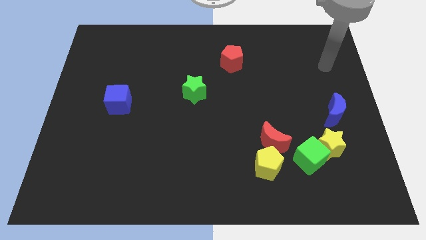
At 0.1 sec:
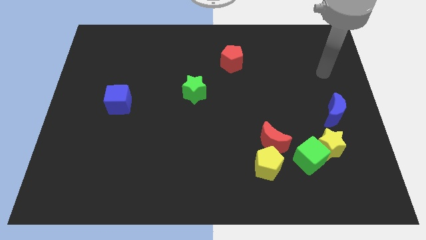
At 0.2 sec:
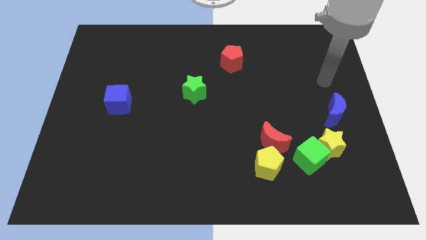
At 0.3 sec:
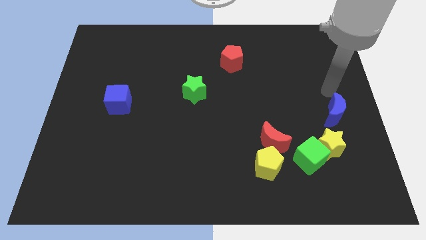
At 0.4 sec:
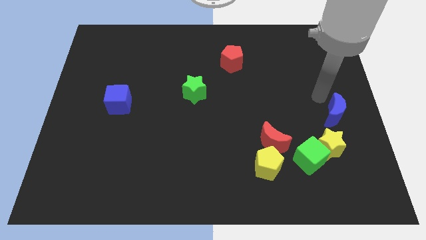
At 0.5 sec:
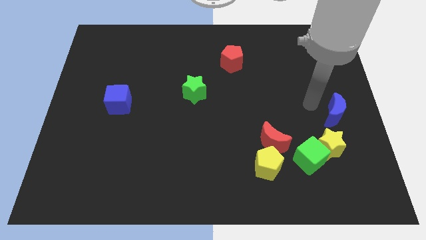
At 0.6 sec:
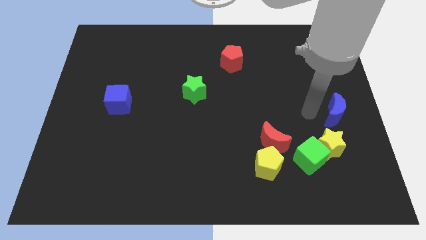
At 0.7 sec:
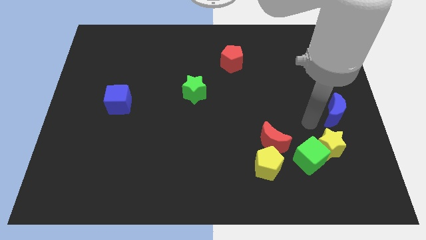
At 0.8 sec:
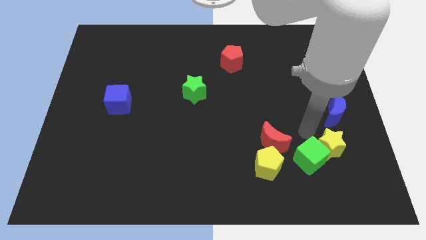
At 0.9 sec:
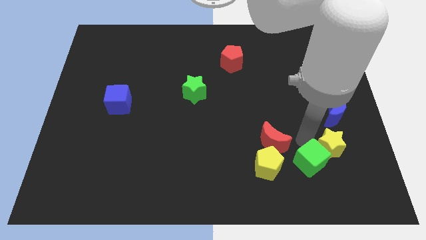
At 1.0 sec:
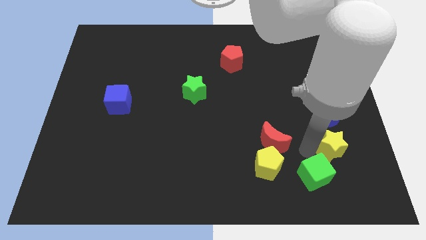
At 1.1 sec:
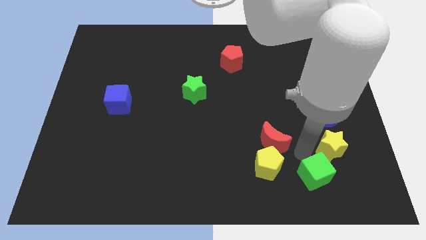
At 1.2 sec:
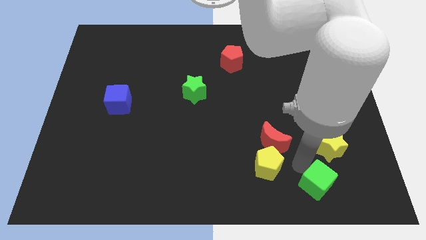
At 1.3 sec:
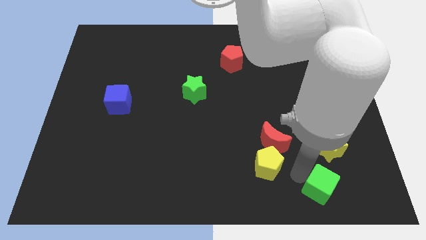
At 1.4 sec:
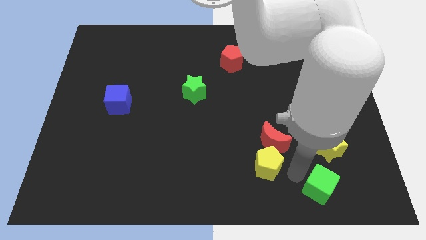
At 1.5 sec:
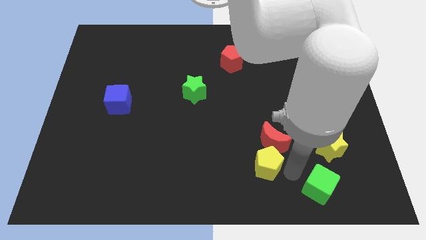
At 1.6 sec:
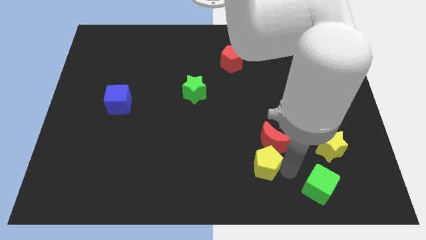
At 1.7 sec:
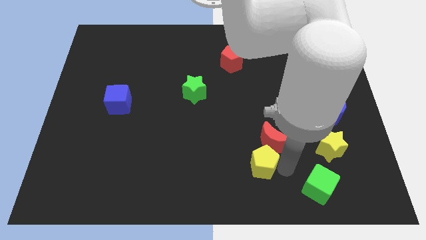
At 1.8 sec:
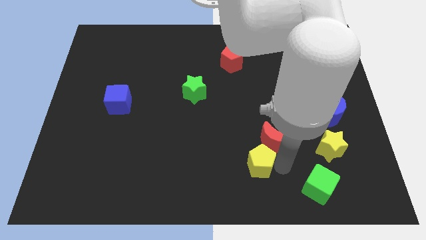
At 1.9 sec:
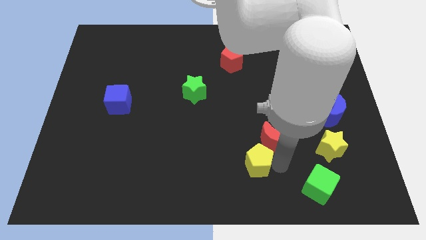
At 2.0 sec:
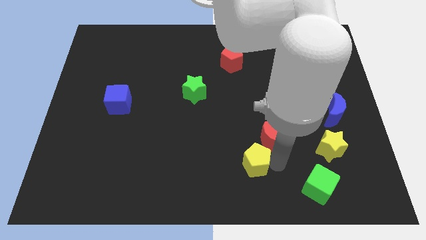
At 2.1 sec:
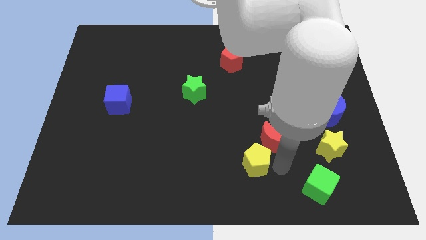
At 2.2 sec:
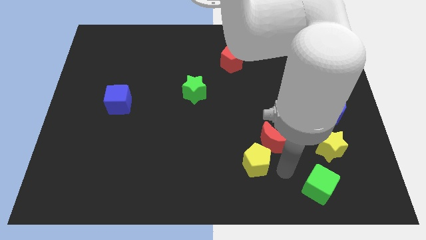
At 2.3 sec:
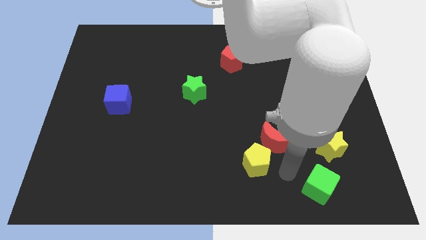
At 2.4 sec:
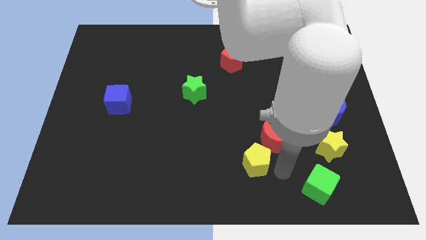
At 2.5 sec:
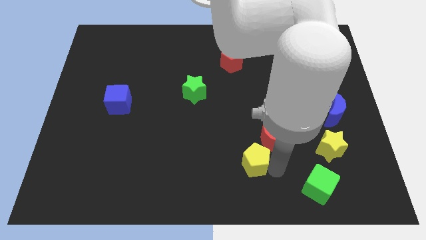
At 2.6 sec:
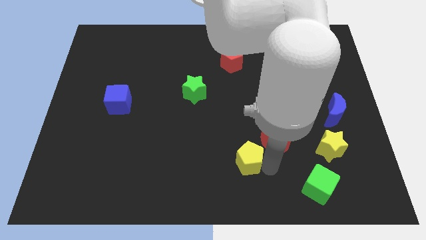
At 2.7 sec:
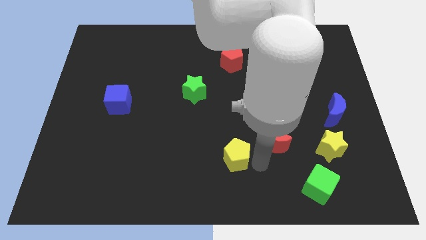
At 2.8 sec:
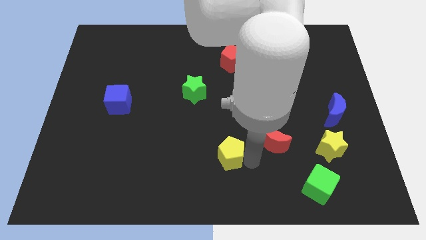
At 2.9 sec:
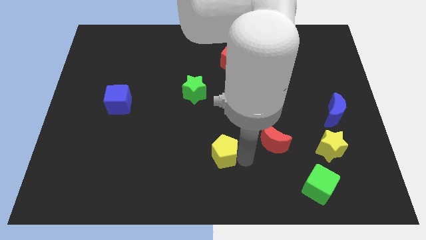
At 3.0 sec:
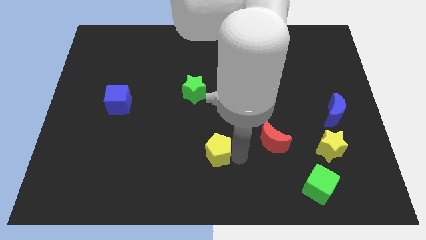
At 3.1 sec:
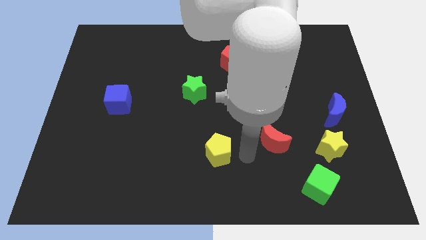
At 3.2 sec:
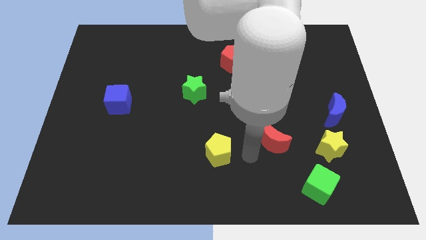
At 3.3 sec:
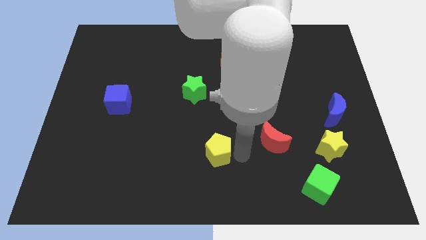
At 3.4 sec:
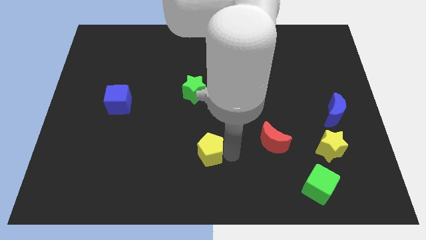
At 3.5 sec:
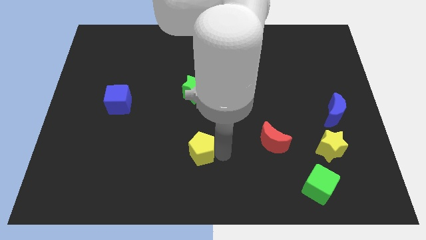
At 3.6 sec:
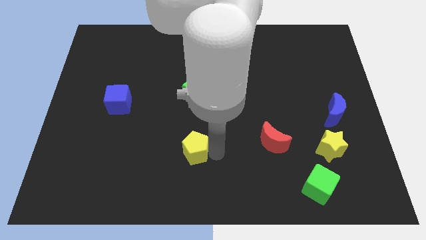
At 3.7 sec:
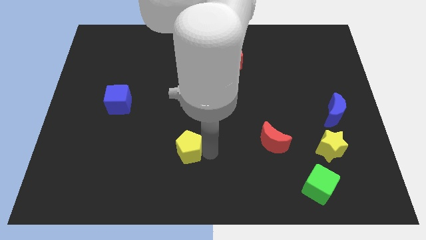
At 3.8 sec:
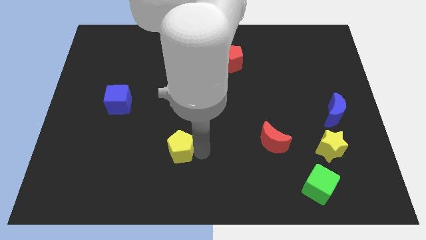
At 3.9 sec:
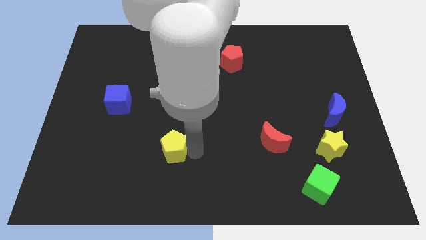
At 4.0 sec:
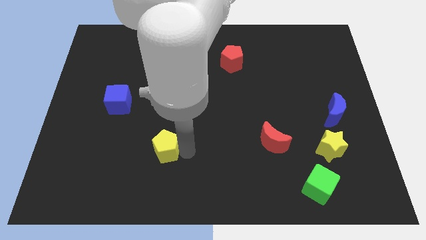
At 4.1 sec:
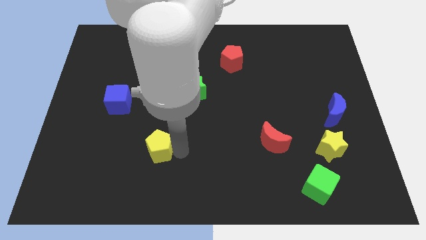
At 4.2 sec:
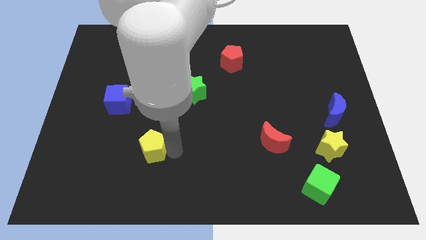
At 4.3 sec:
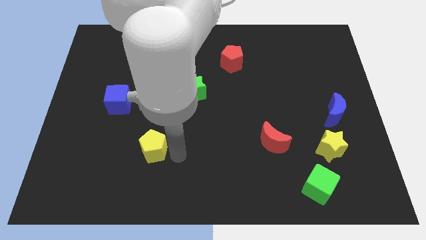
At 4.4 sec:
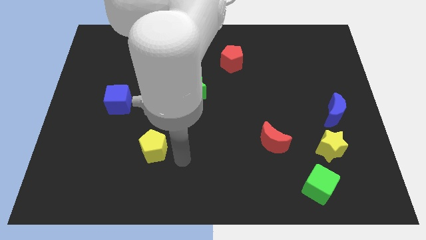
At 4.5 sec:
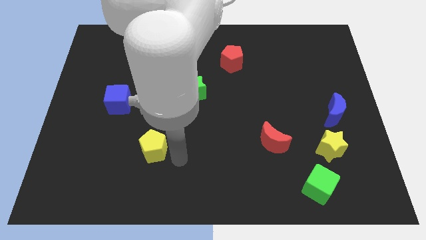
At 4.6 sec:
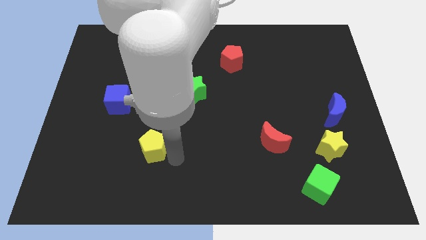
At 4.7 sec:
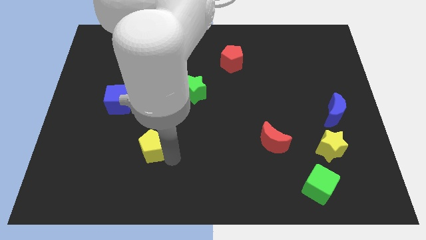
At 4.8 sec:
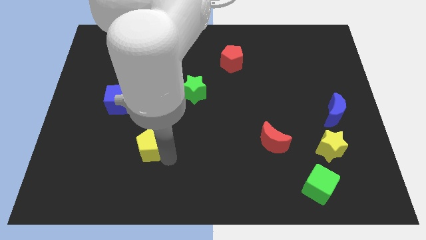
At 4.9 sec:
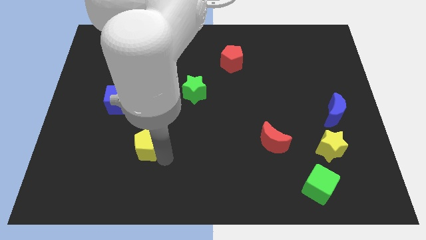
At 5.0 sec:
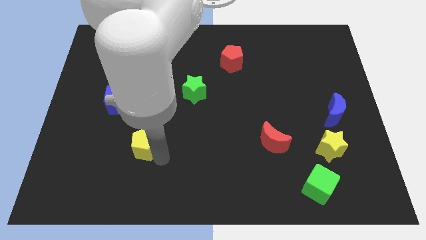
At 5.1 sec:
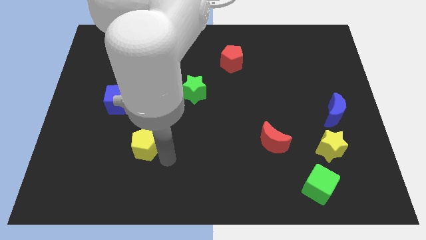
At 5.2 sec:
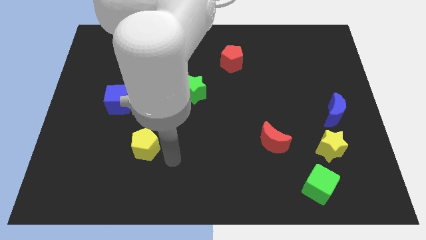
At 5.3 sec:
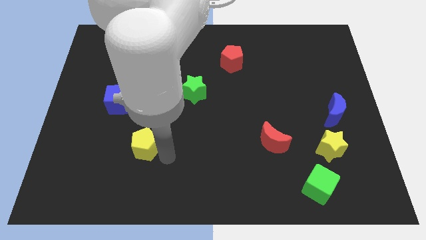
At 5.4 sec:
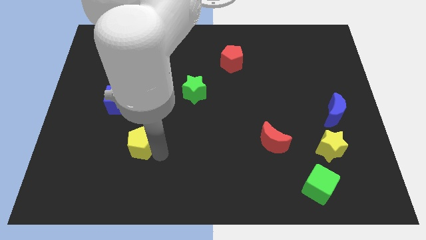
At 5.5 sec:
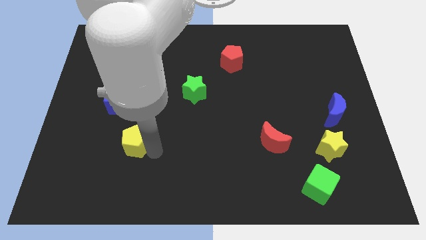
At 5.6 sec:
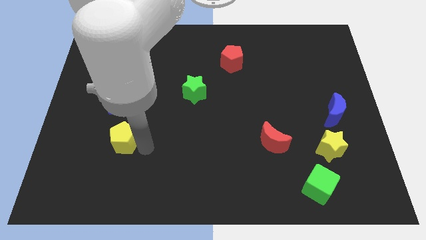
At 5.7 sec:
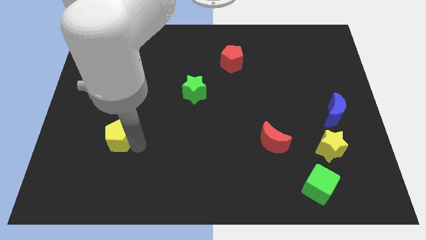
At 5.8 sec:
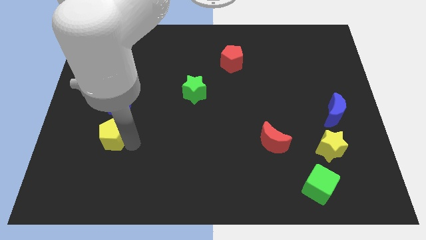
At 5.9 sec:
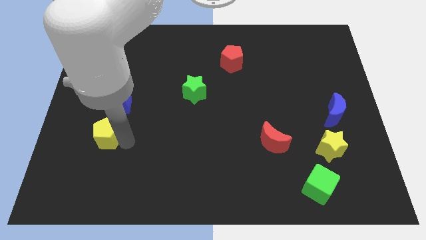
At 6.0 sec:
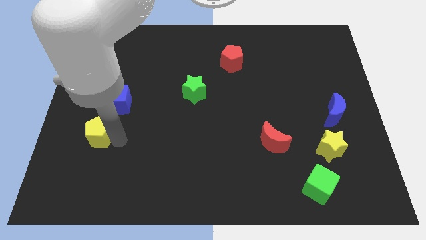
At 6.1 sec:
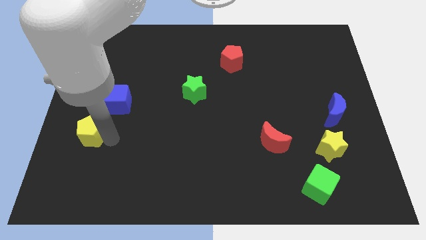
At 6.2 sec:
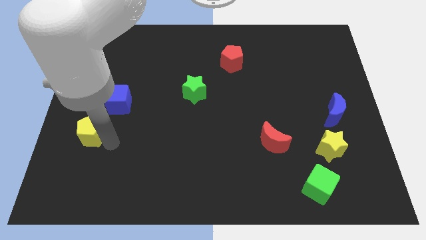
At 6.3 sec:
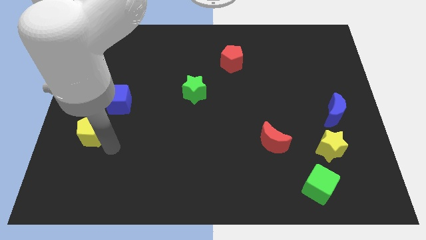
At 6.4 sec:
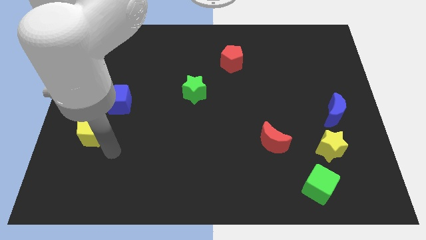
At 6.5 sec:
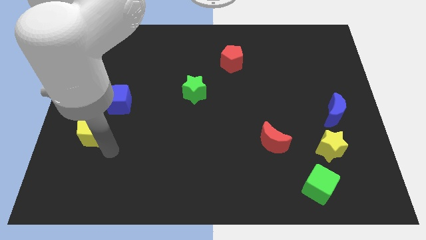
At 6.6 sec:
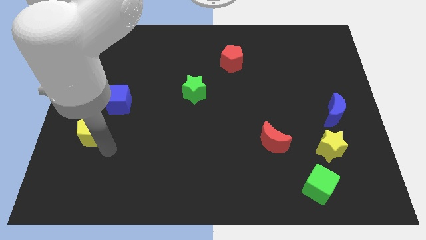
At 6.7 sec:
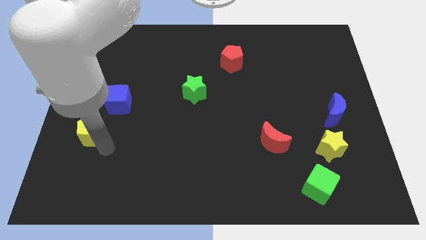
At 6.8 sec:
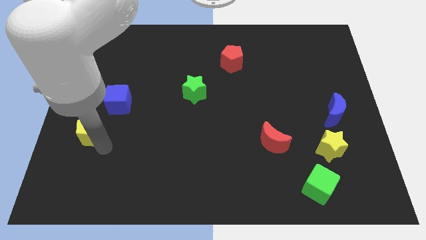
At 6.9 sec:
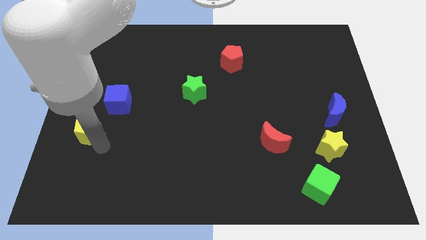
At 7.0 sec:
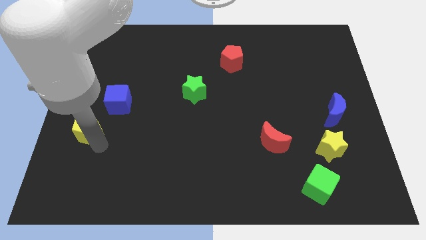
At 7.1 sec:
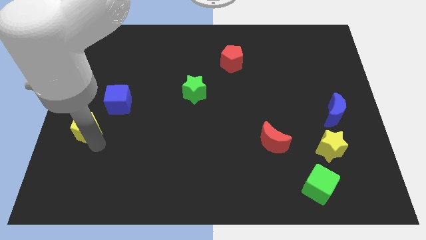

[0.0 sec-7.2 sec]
push the yellow pentagon to the center left
